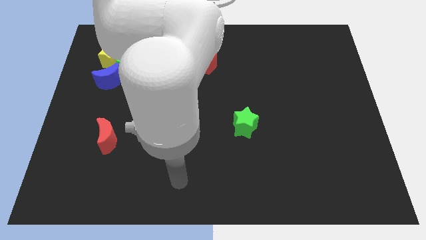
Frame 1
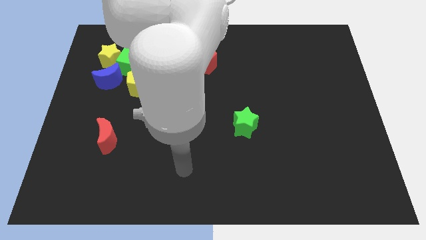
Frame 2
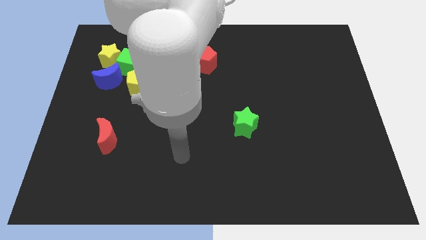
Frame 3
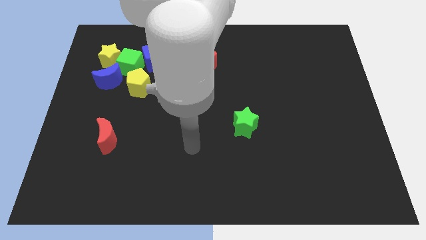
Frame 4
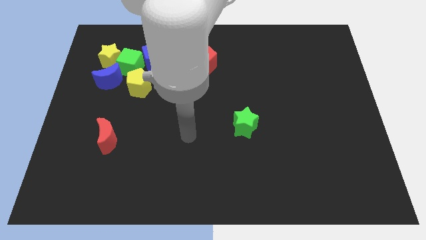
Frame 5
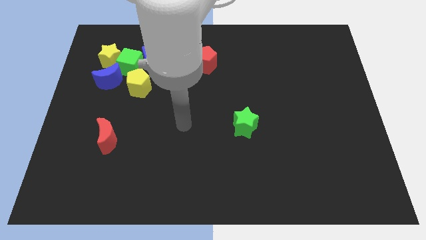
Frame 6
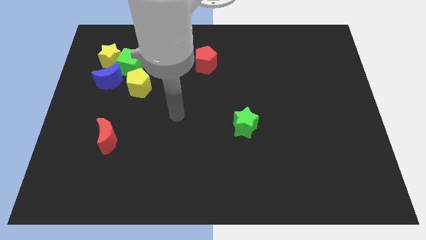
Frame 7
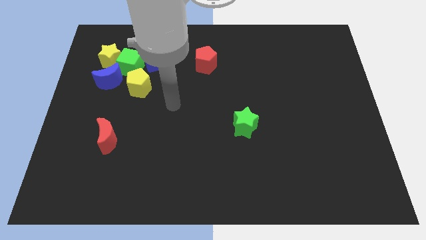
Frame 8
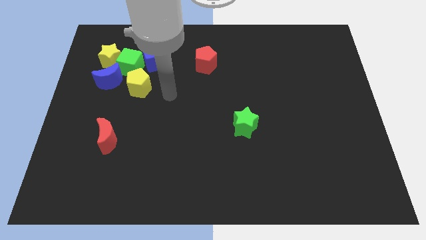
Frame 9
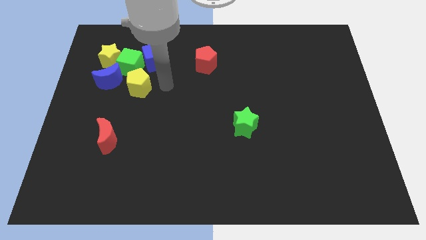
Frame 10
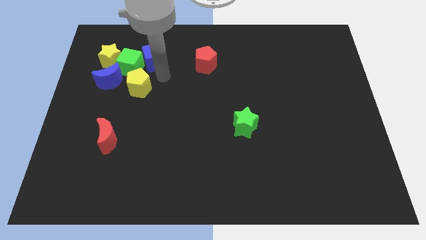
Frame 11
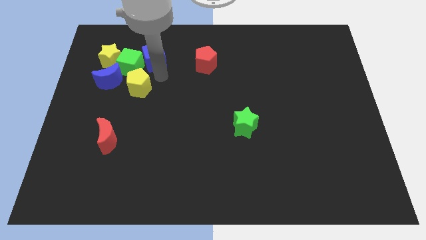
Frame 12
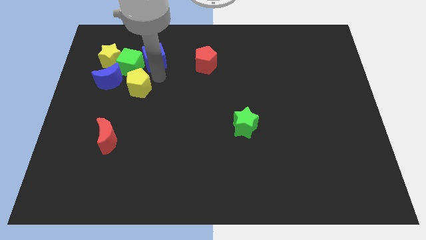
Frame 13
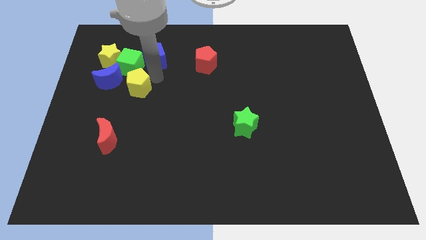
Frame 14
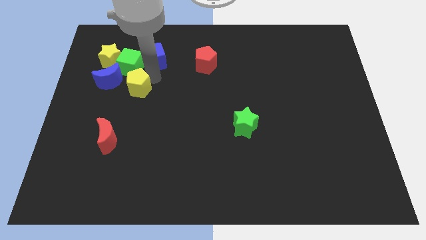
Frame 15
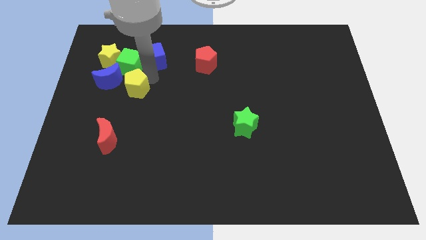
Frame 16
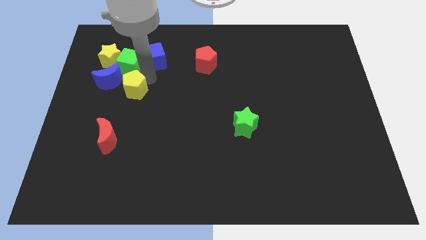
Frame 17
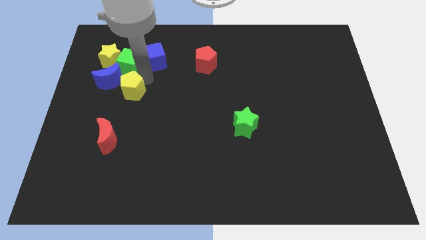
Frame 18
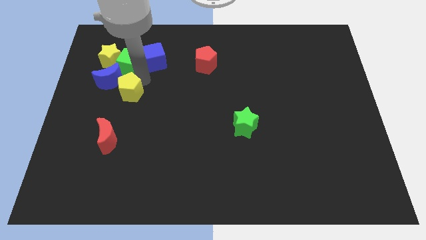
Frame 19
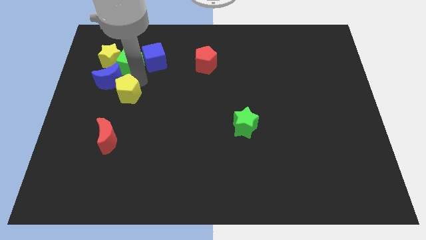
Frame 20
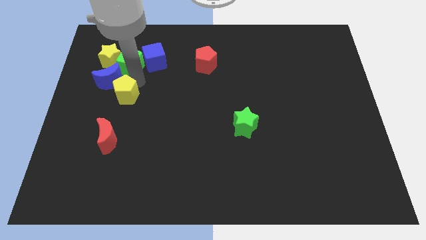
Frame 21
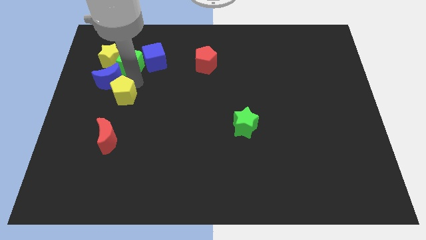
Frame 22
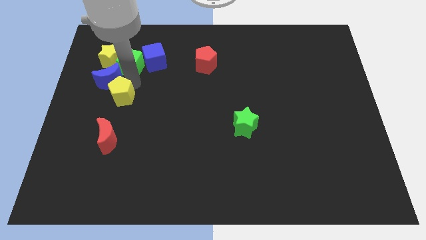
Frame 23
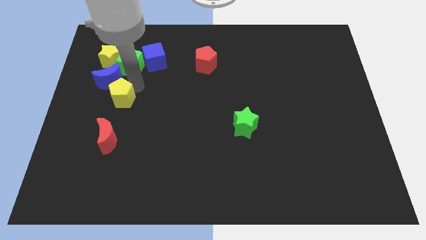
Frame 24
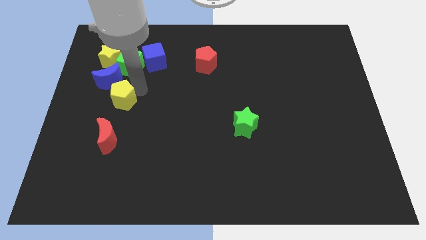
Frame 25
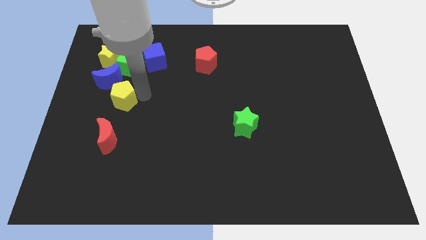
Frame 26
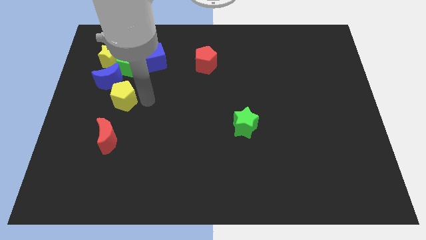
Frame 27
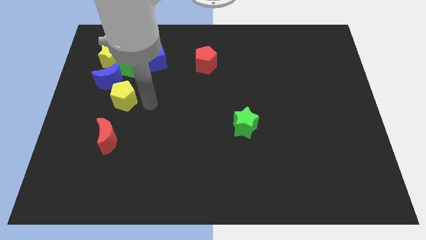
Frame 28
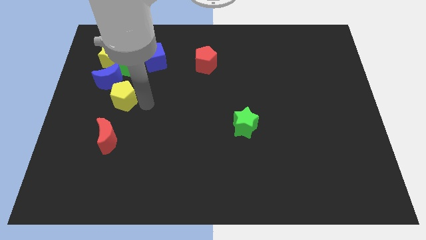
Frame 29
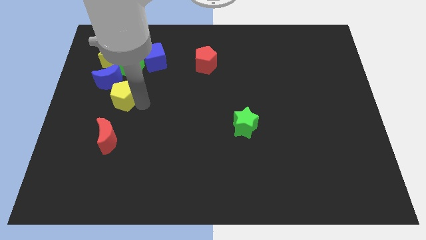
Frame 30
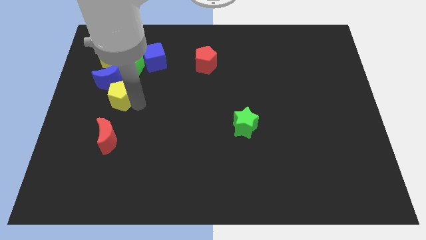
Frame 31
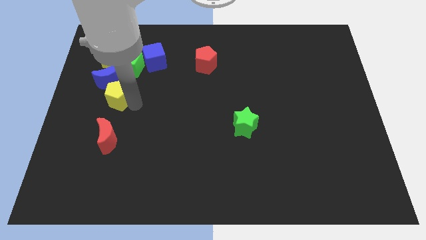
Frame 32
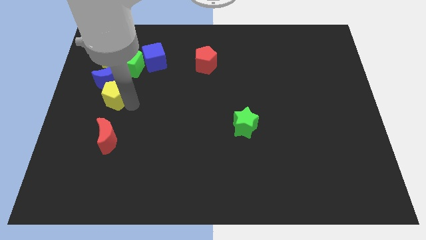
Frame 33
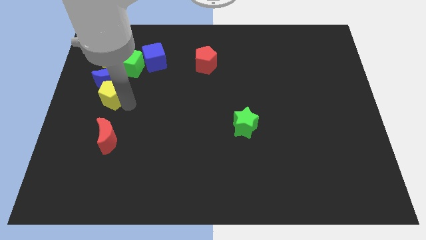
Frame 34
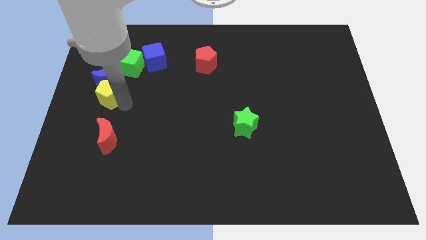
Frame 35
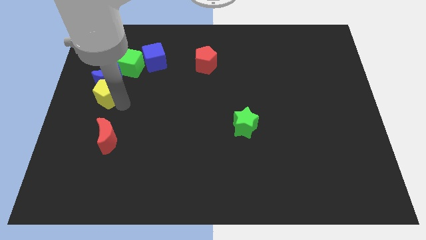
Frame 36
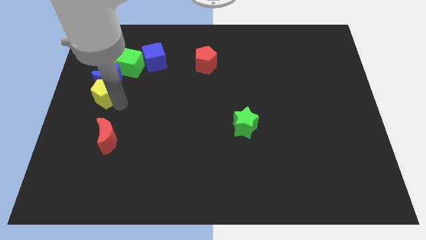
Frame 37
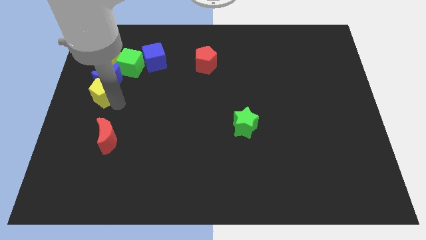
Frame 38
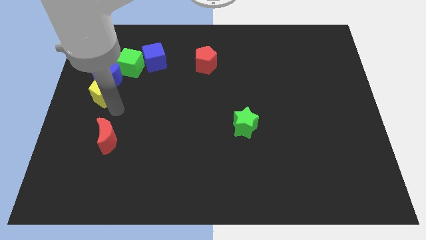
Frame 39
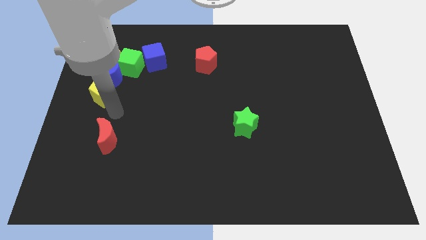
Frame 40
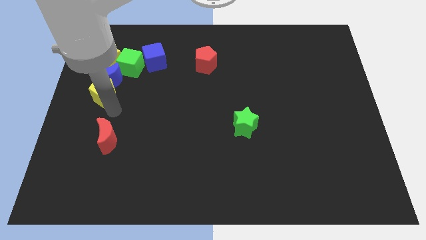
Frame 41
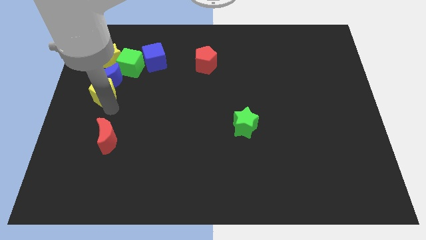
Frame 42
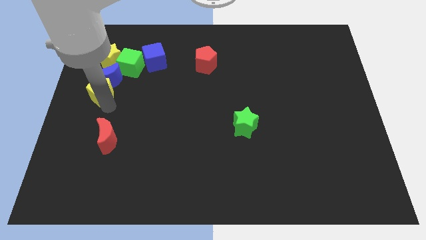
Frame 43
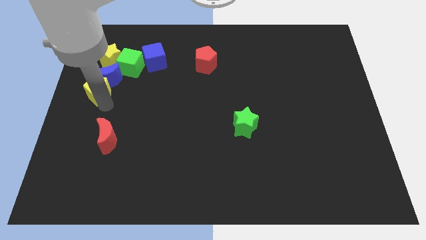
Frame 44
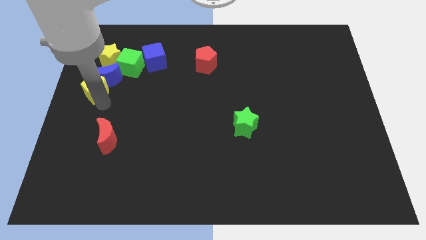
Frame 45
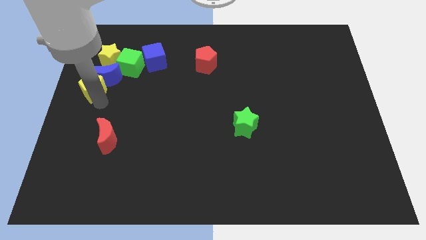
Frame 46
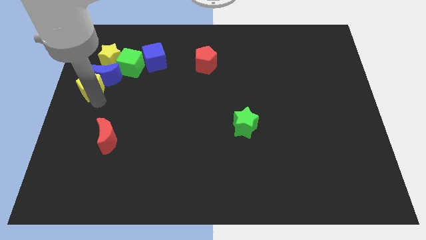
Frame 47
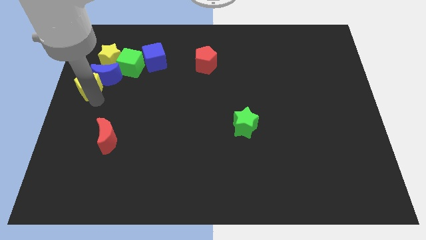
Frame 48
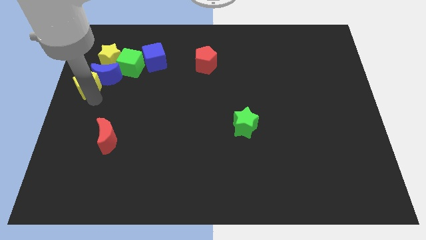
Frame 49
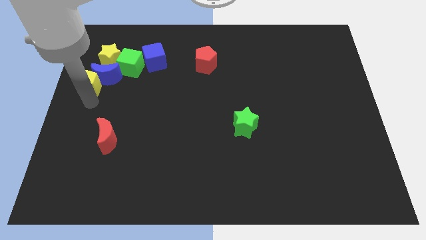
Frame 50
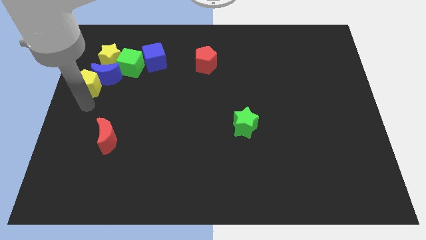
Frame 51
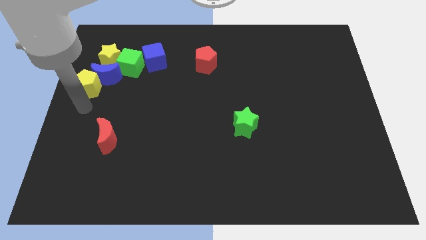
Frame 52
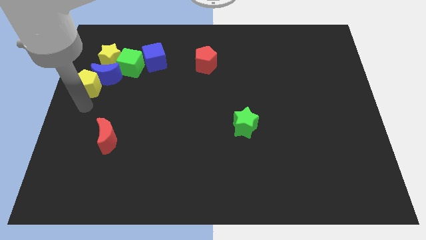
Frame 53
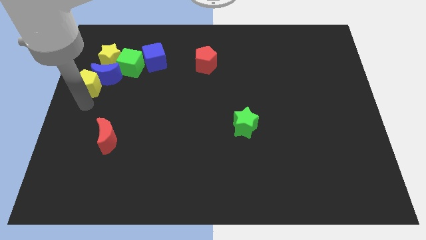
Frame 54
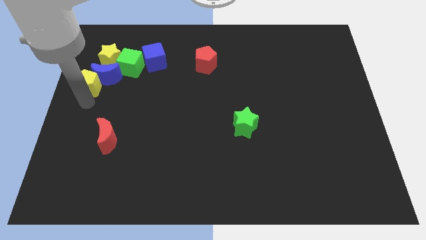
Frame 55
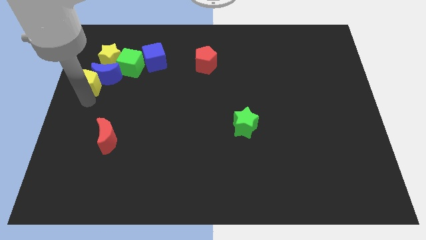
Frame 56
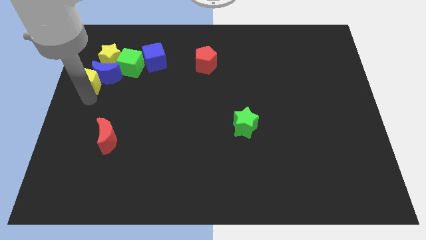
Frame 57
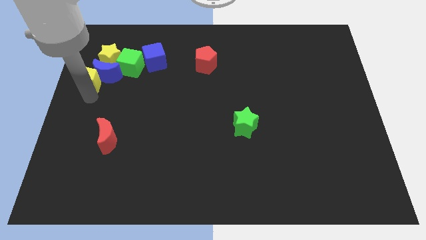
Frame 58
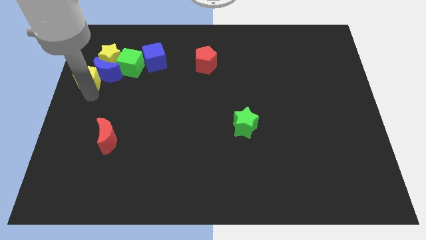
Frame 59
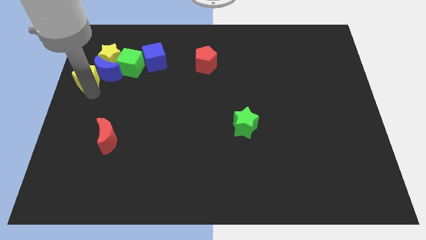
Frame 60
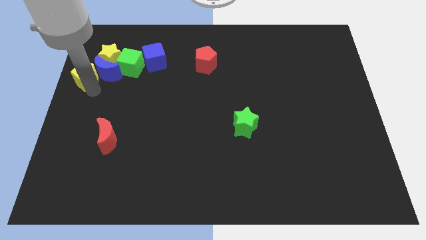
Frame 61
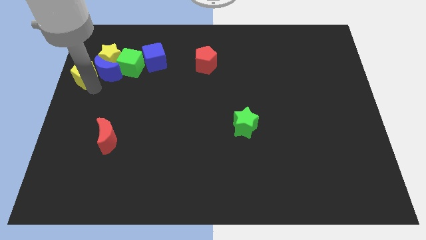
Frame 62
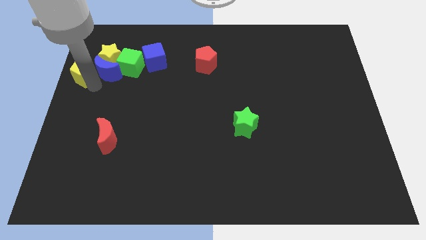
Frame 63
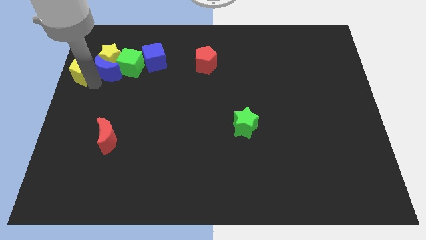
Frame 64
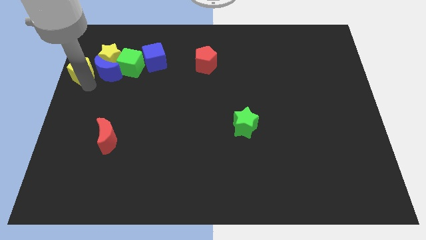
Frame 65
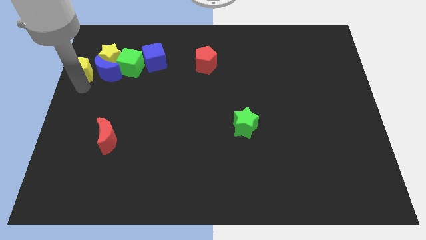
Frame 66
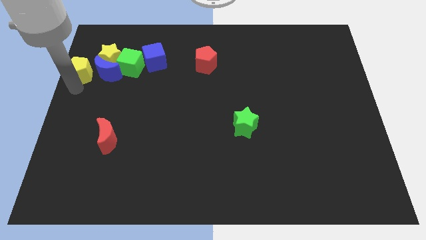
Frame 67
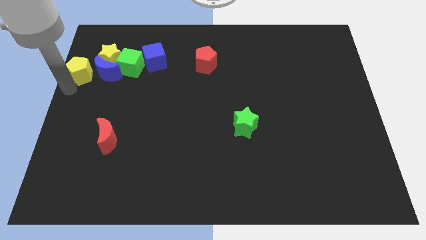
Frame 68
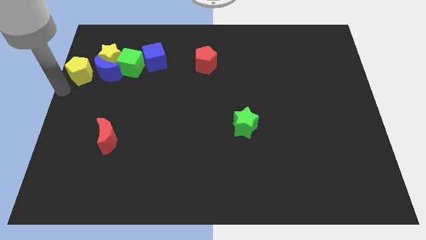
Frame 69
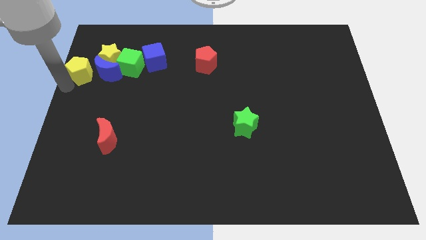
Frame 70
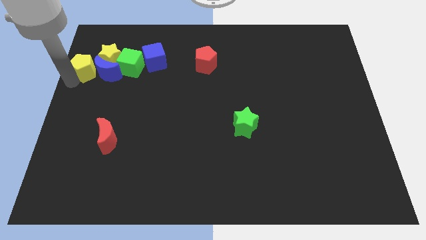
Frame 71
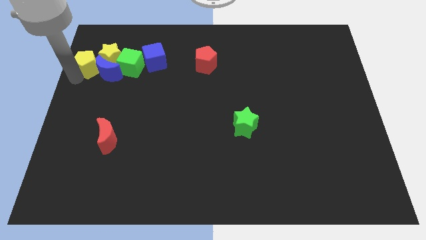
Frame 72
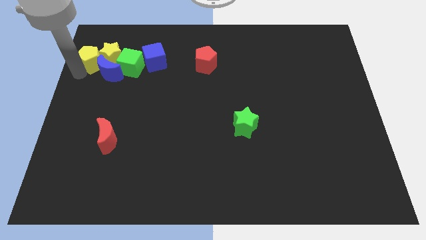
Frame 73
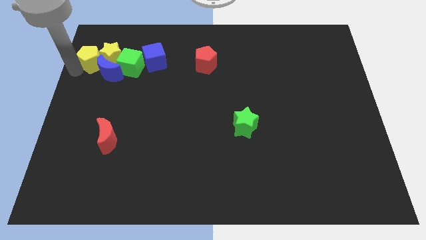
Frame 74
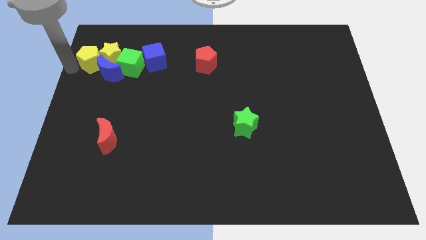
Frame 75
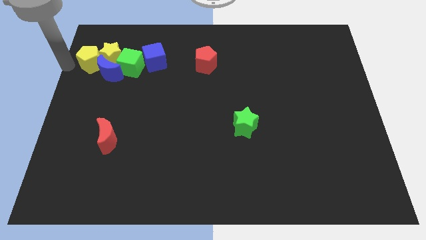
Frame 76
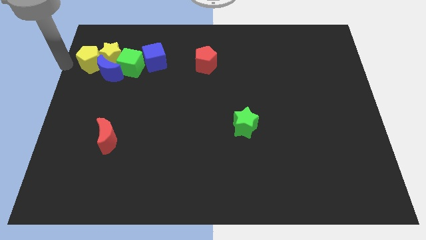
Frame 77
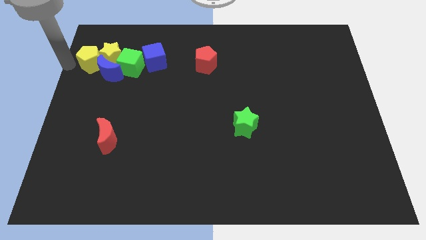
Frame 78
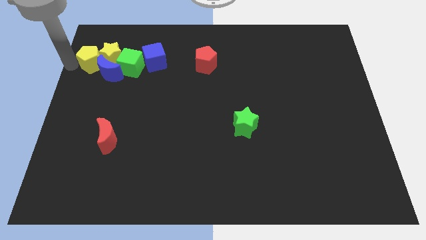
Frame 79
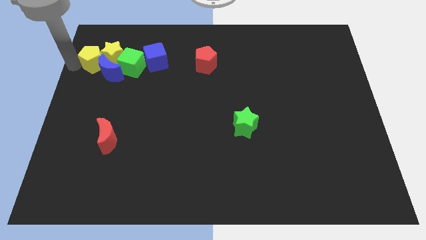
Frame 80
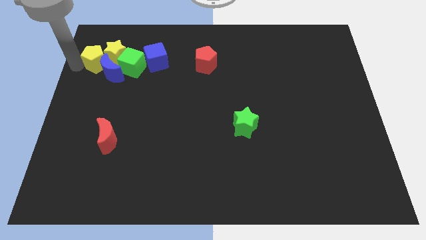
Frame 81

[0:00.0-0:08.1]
put the yellow pentagon just left of the blue cube
